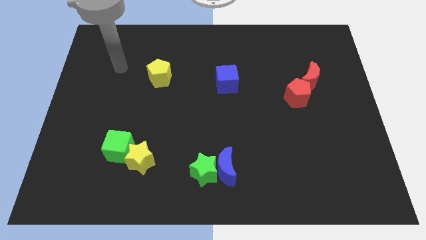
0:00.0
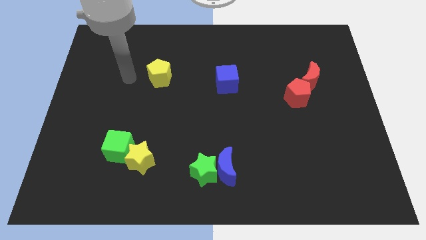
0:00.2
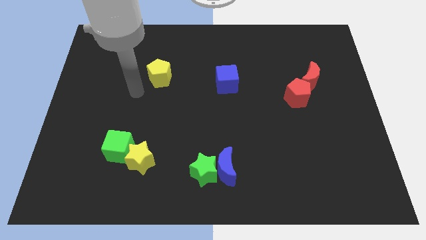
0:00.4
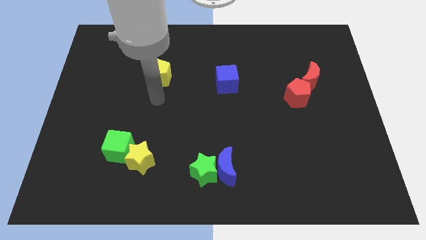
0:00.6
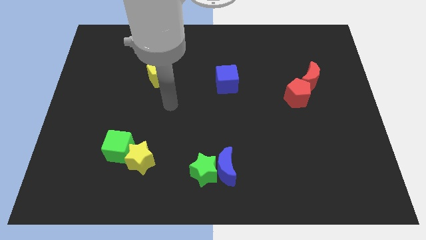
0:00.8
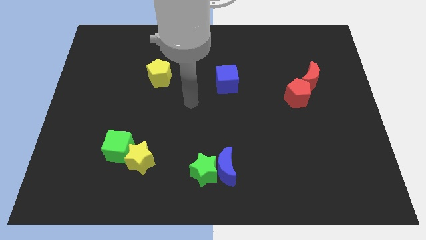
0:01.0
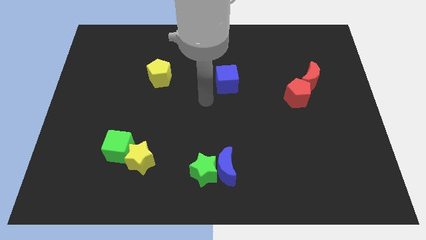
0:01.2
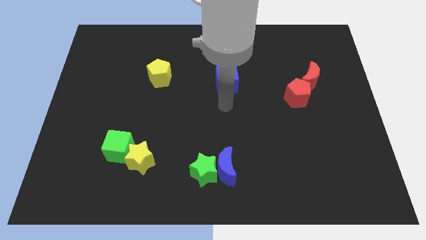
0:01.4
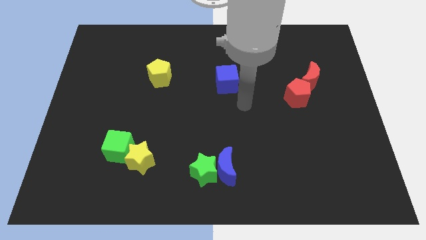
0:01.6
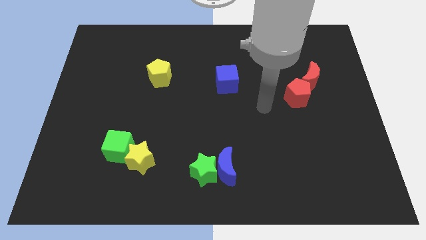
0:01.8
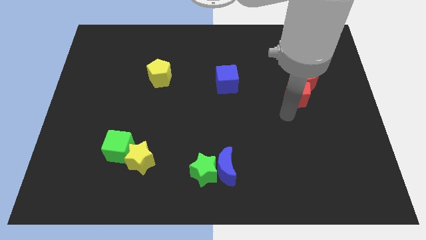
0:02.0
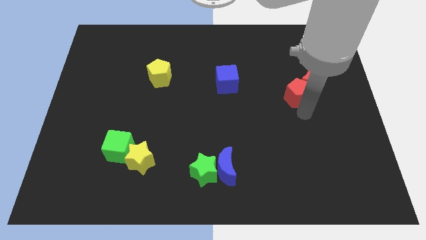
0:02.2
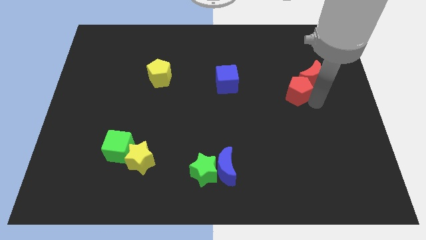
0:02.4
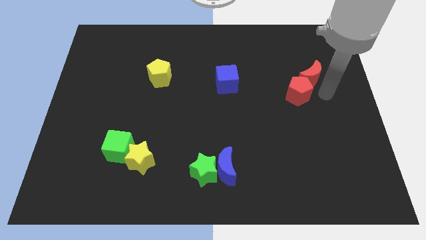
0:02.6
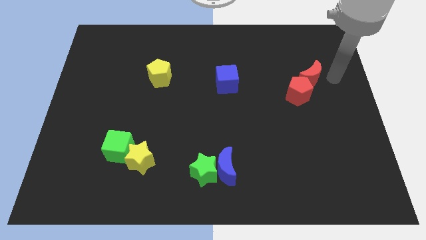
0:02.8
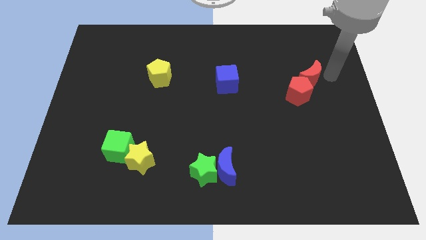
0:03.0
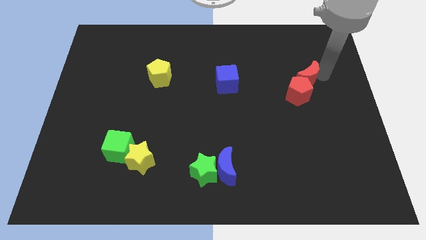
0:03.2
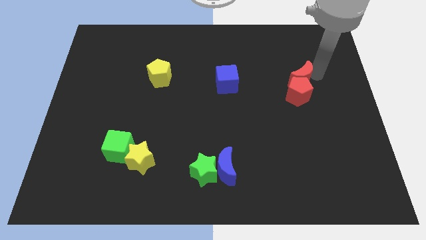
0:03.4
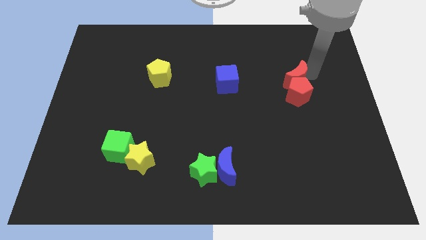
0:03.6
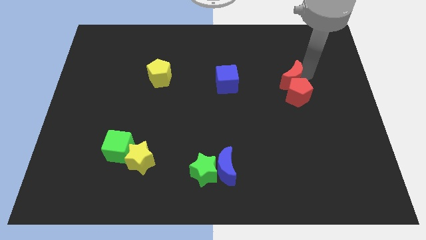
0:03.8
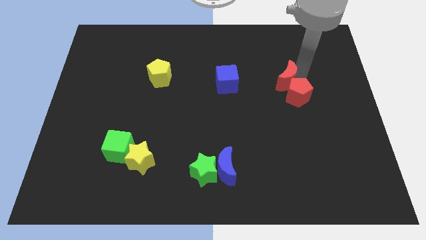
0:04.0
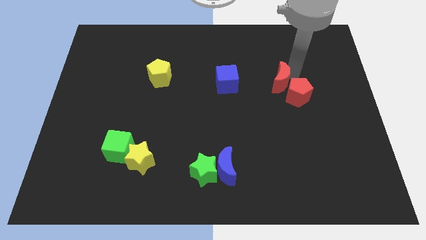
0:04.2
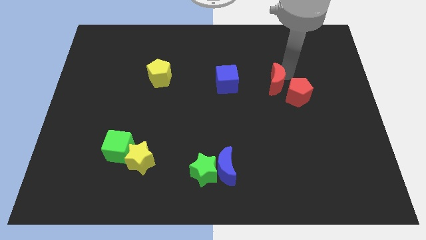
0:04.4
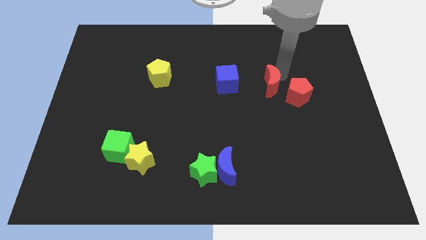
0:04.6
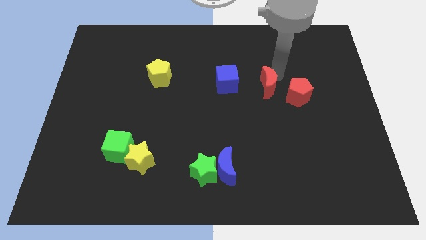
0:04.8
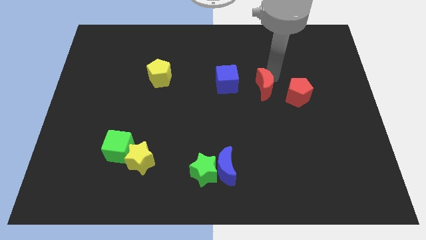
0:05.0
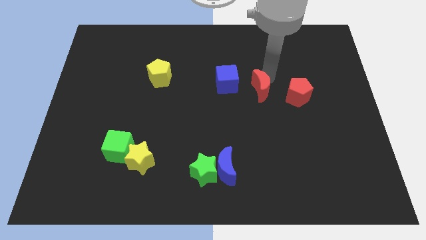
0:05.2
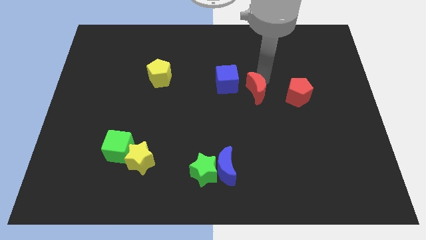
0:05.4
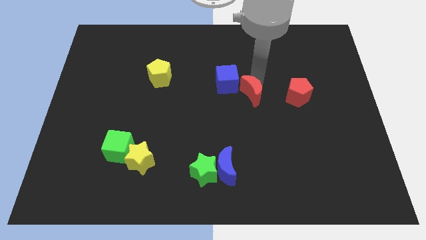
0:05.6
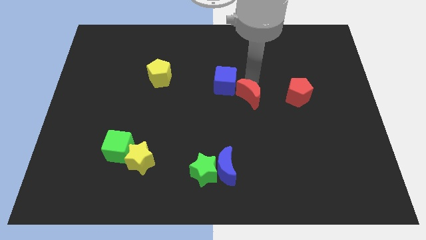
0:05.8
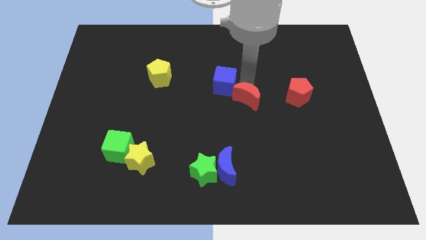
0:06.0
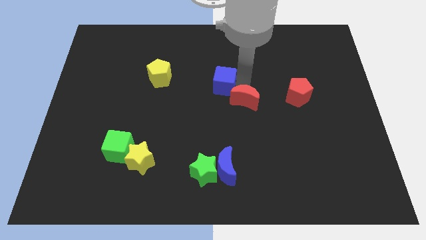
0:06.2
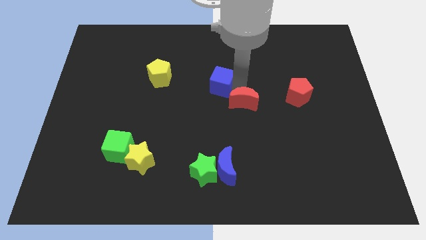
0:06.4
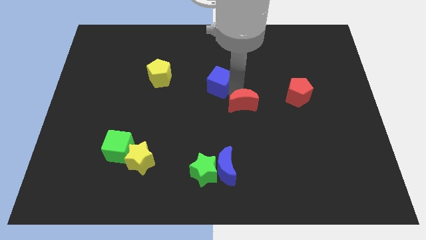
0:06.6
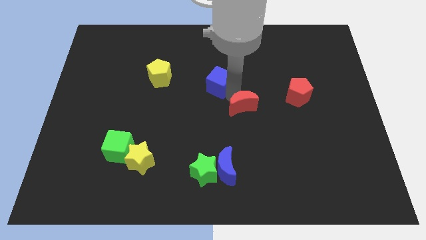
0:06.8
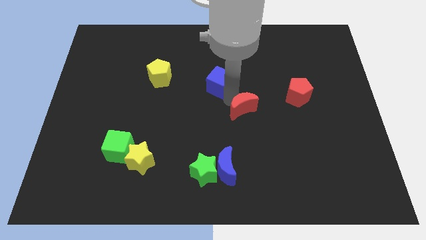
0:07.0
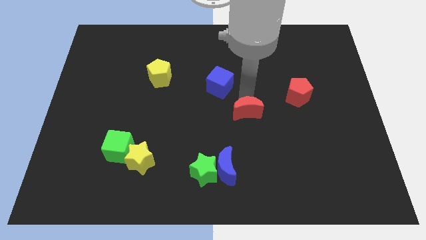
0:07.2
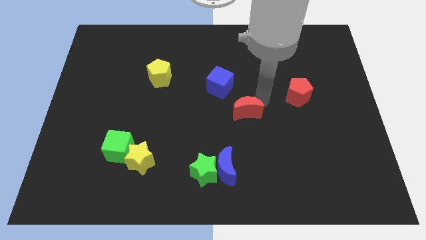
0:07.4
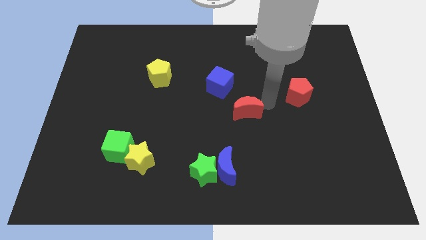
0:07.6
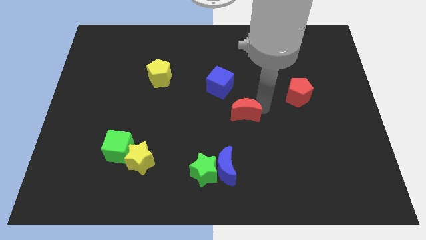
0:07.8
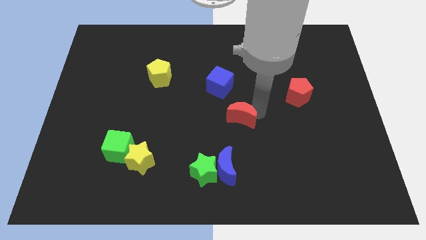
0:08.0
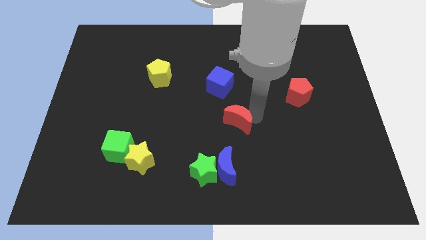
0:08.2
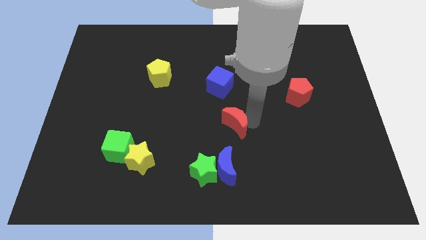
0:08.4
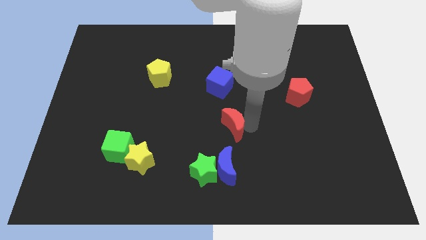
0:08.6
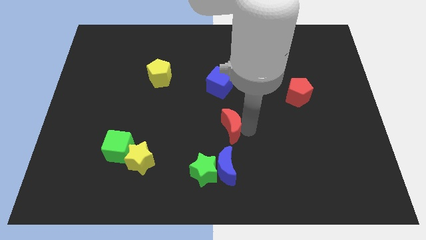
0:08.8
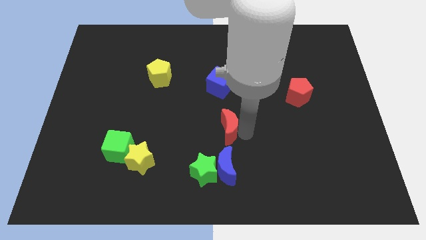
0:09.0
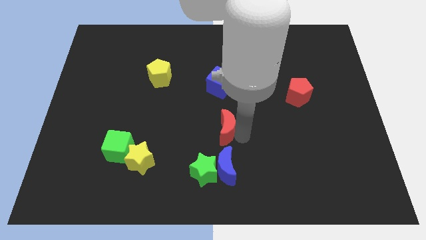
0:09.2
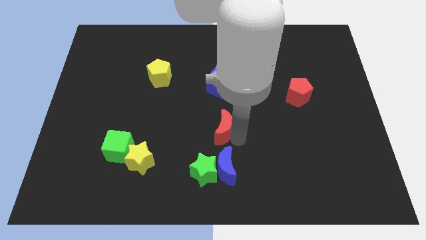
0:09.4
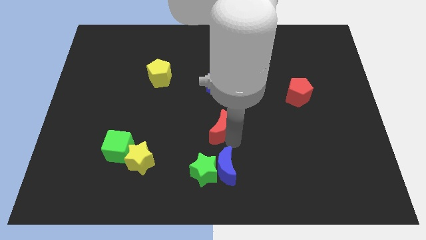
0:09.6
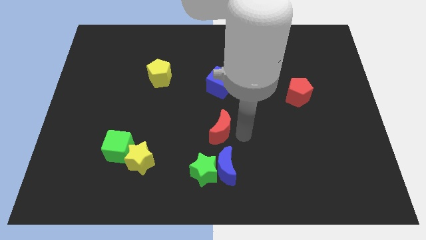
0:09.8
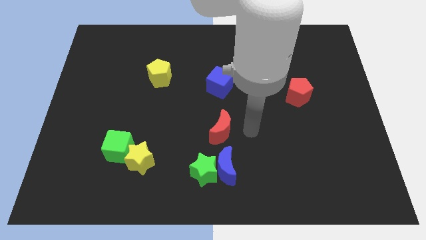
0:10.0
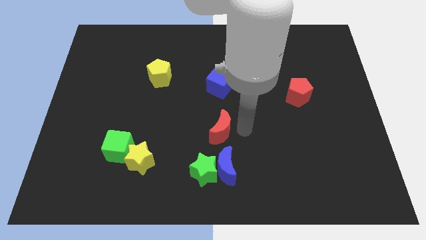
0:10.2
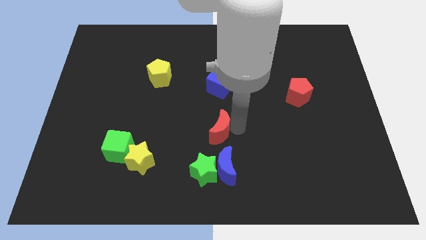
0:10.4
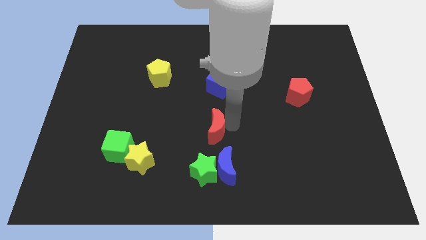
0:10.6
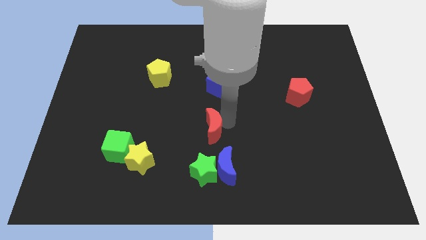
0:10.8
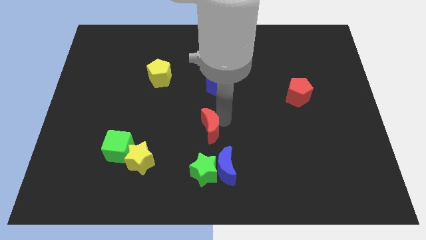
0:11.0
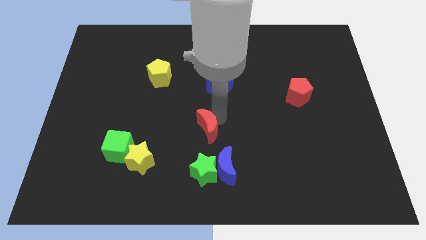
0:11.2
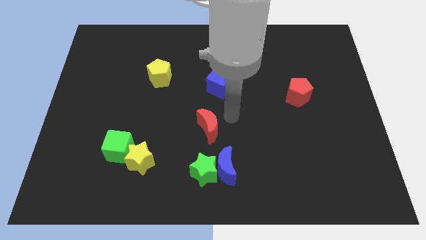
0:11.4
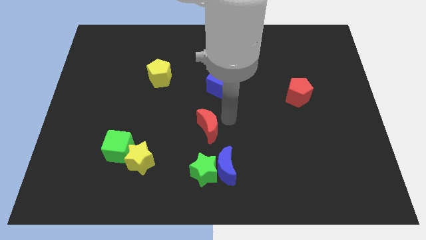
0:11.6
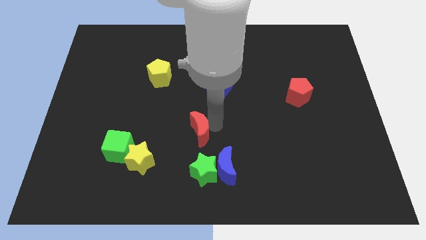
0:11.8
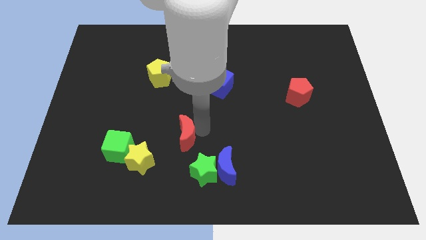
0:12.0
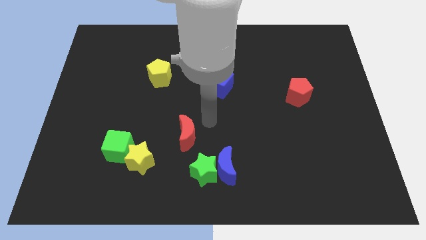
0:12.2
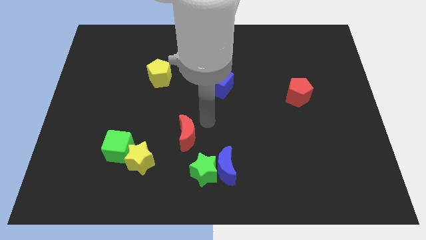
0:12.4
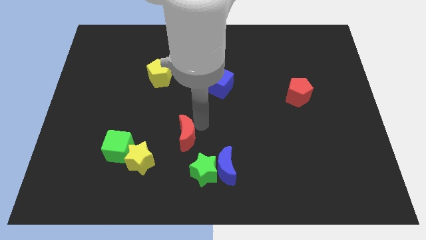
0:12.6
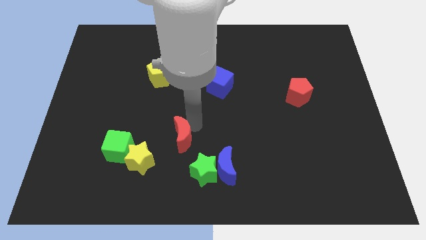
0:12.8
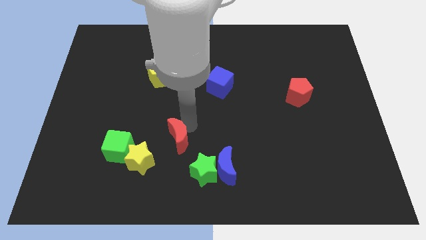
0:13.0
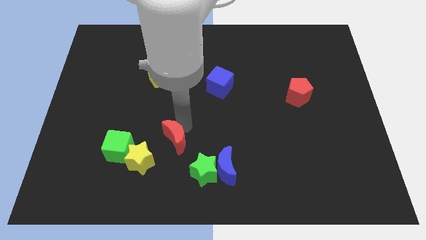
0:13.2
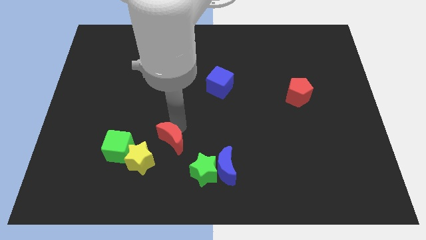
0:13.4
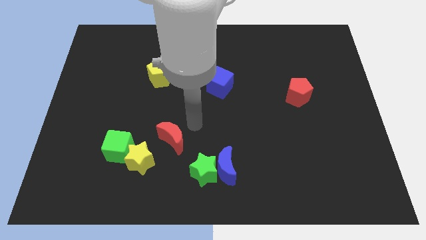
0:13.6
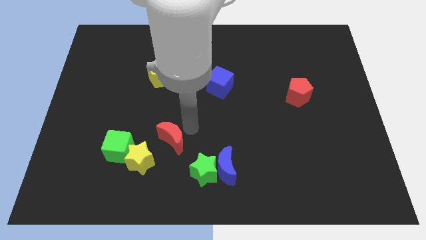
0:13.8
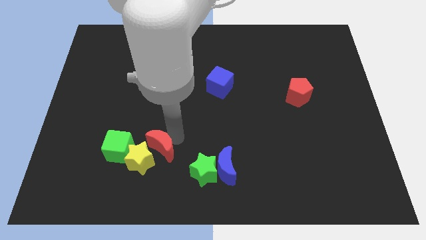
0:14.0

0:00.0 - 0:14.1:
push the red moon next to the yellow star
